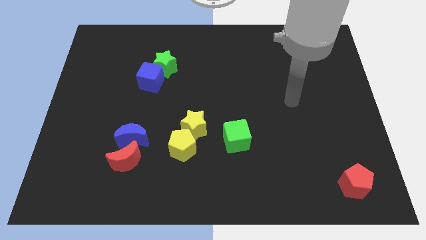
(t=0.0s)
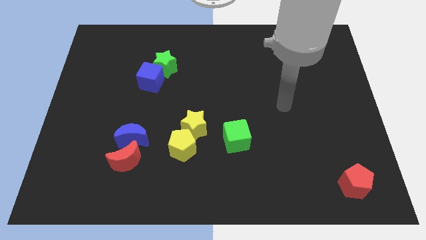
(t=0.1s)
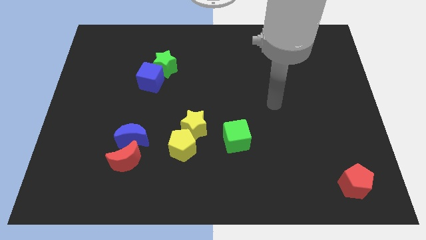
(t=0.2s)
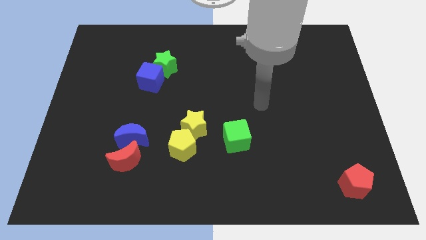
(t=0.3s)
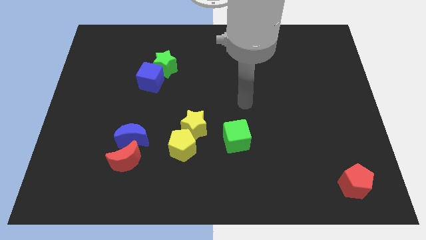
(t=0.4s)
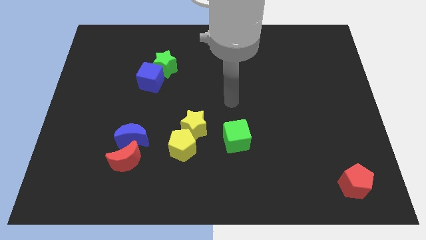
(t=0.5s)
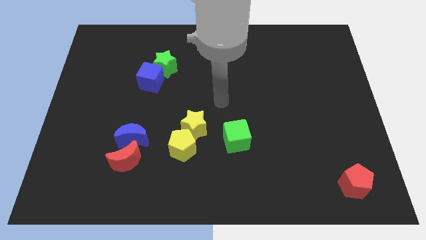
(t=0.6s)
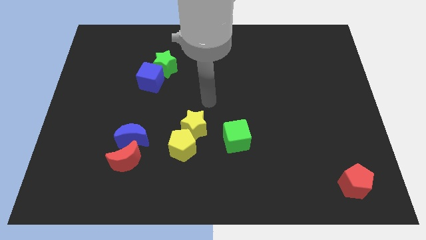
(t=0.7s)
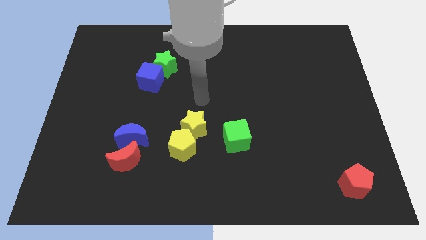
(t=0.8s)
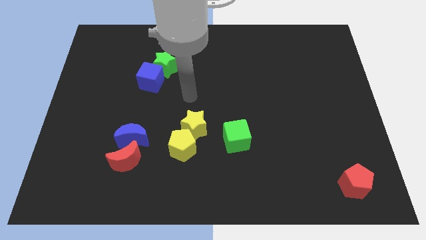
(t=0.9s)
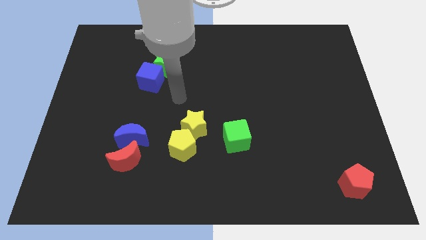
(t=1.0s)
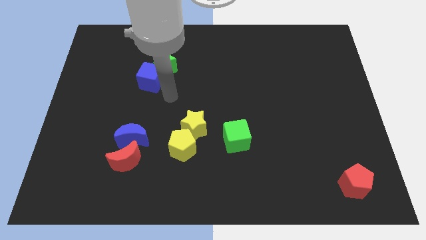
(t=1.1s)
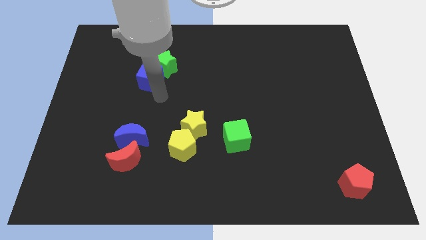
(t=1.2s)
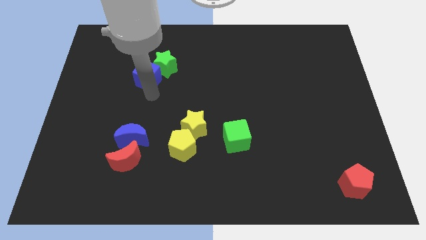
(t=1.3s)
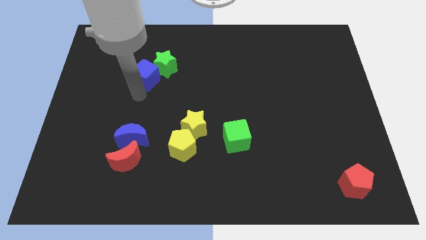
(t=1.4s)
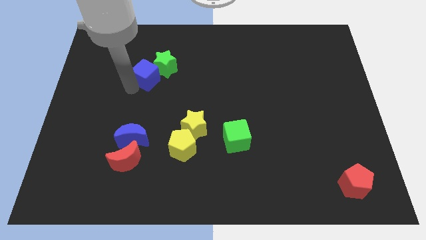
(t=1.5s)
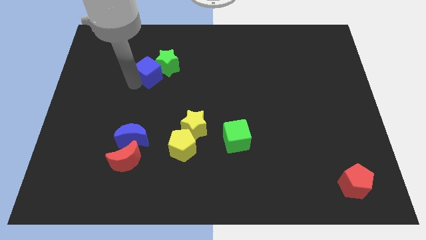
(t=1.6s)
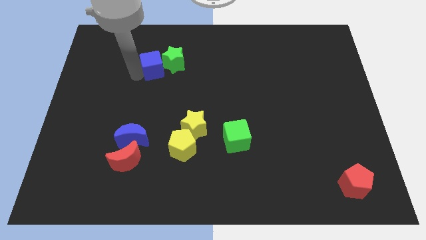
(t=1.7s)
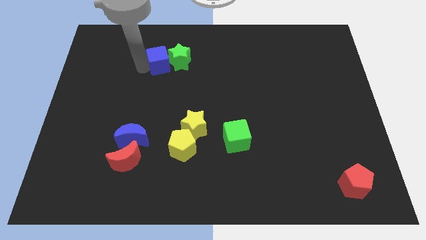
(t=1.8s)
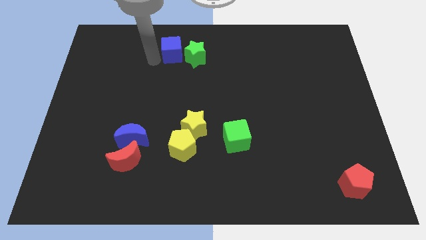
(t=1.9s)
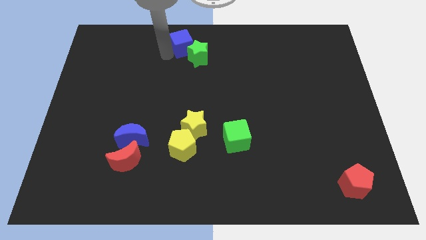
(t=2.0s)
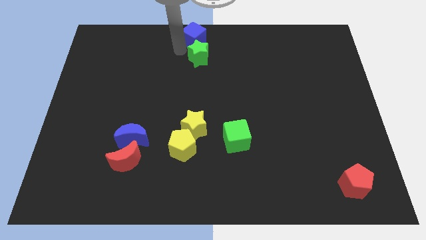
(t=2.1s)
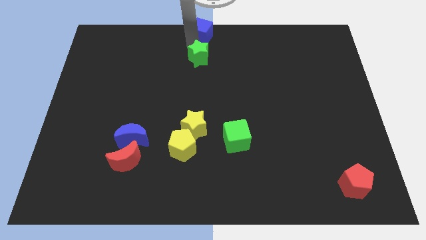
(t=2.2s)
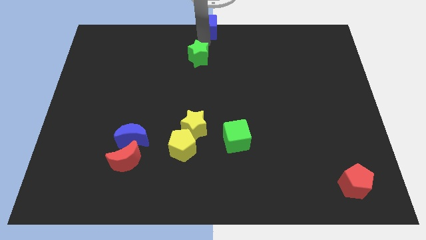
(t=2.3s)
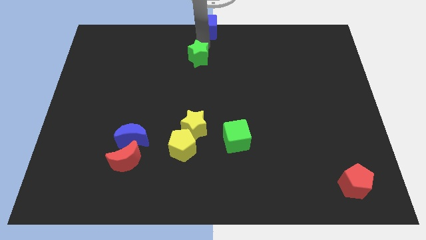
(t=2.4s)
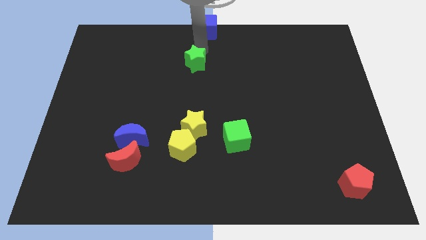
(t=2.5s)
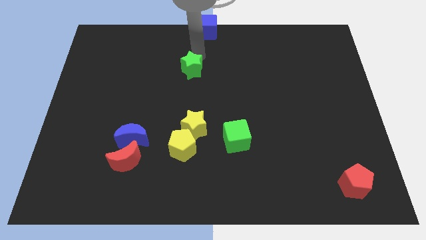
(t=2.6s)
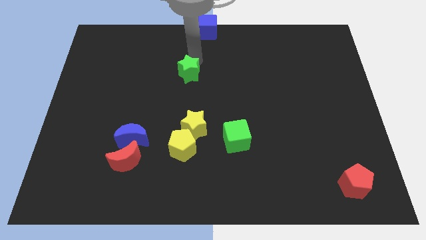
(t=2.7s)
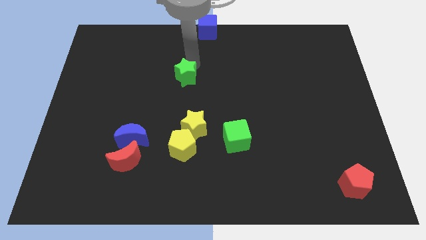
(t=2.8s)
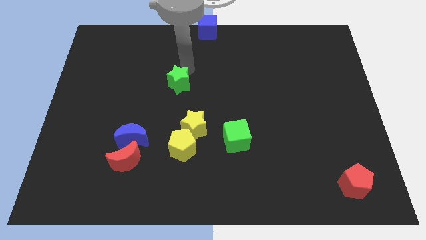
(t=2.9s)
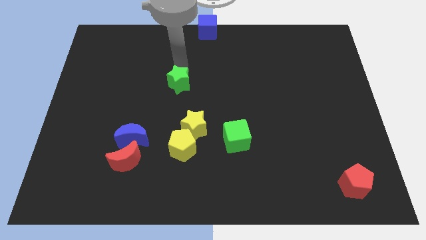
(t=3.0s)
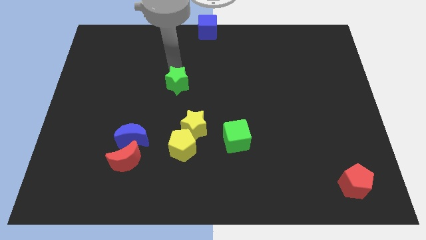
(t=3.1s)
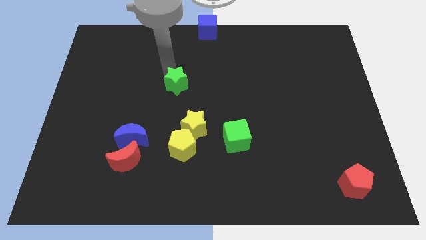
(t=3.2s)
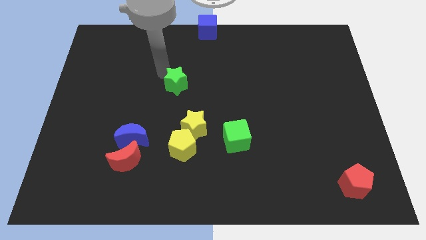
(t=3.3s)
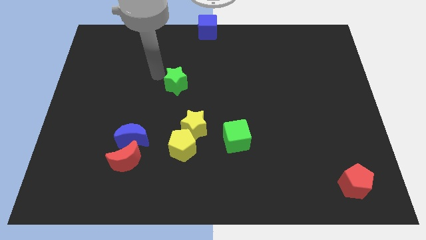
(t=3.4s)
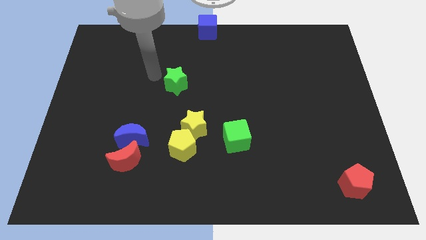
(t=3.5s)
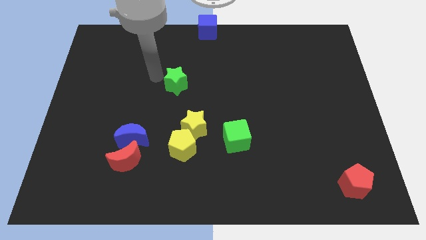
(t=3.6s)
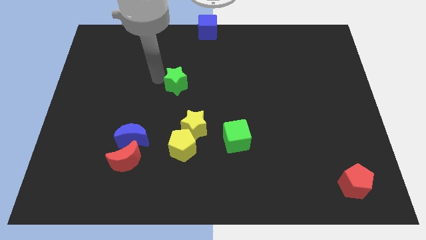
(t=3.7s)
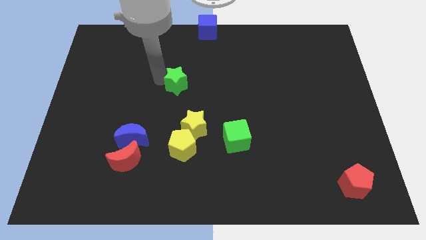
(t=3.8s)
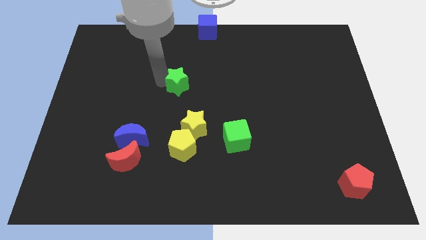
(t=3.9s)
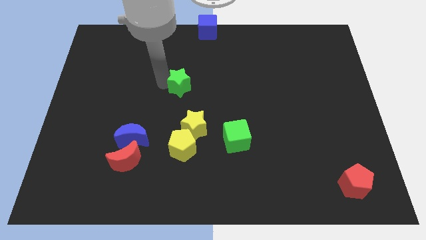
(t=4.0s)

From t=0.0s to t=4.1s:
slightly push the green star down and right

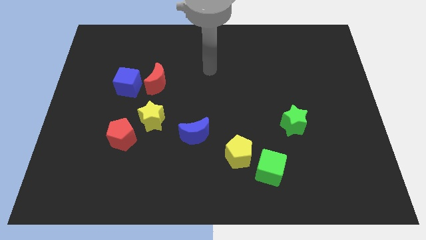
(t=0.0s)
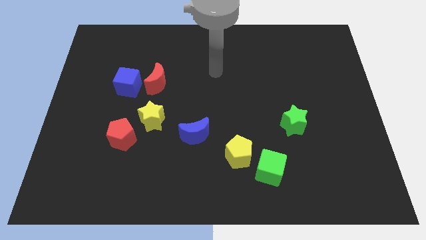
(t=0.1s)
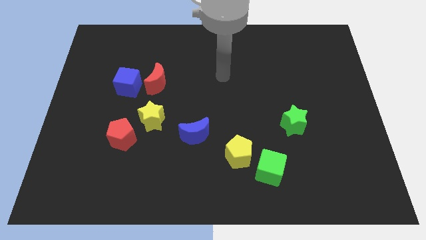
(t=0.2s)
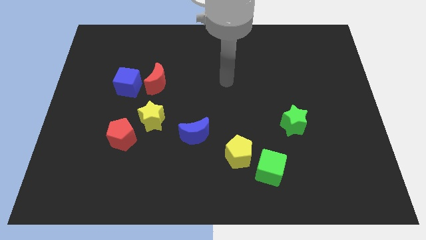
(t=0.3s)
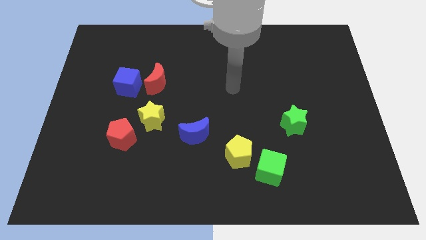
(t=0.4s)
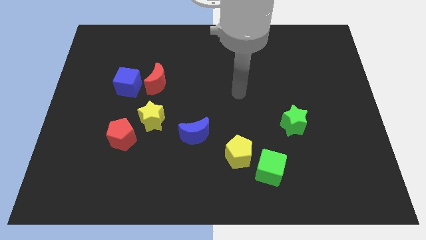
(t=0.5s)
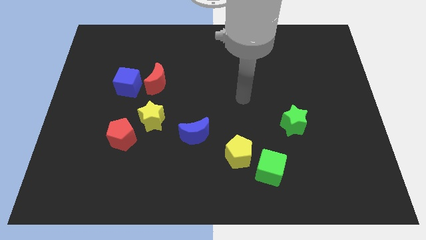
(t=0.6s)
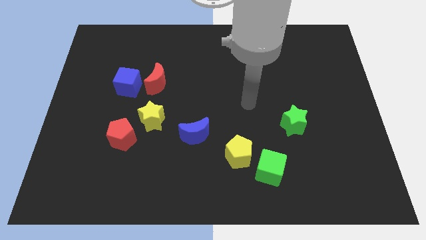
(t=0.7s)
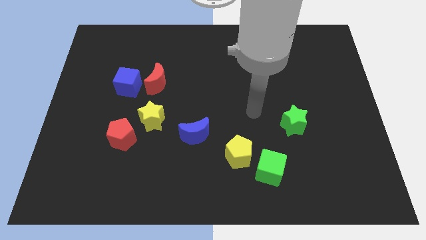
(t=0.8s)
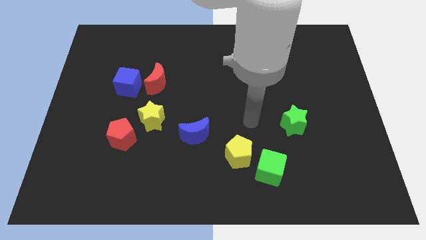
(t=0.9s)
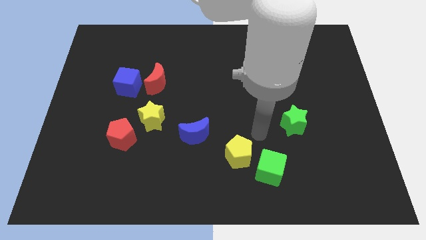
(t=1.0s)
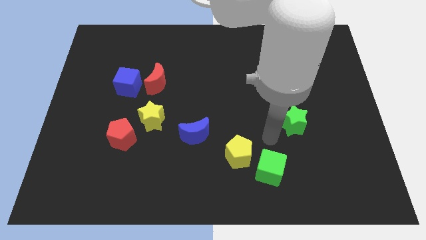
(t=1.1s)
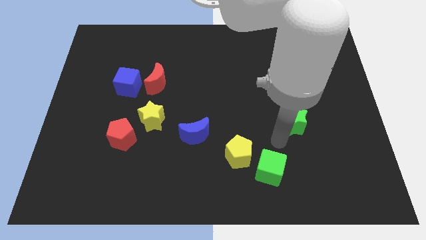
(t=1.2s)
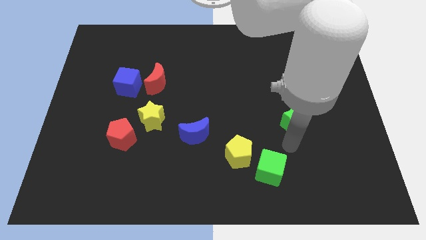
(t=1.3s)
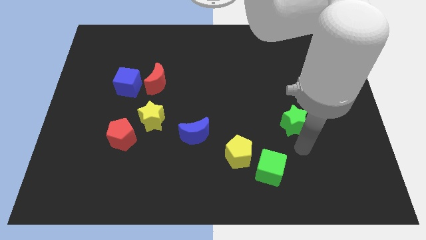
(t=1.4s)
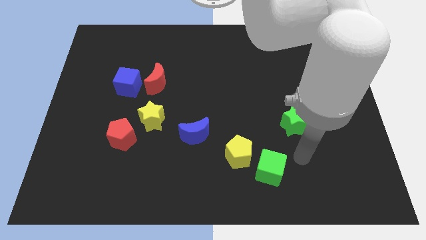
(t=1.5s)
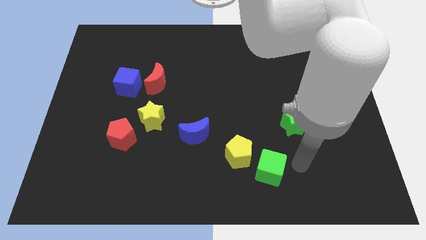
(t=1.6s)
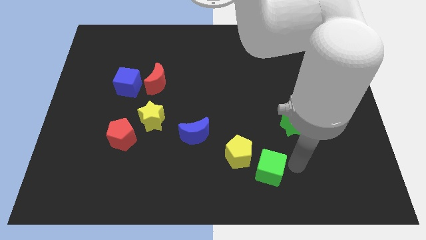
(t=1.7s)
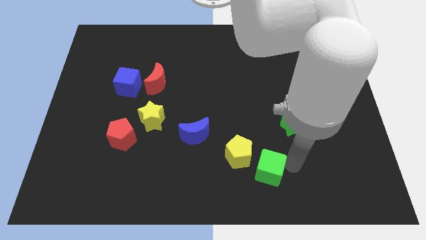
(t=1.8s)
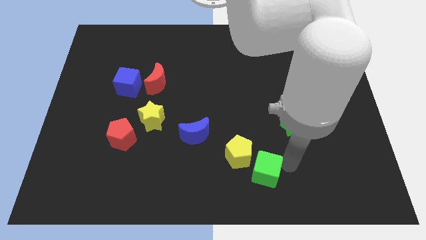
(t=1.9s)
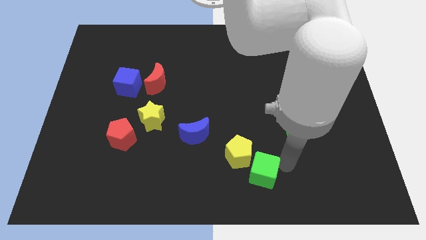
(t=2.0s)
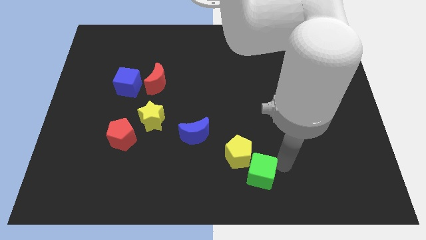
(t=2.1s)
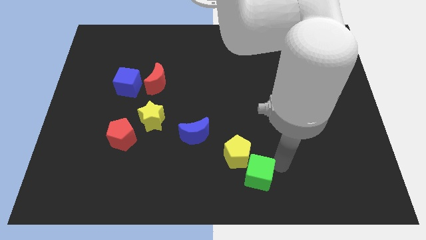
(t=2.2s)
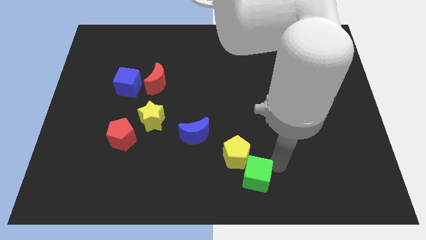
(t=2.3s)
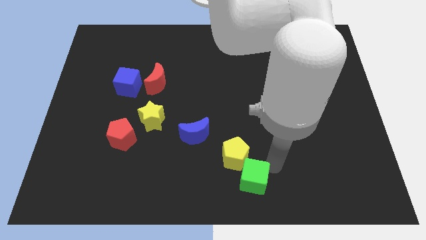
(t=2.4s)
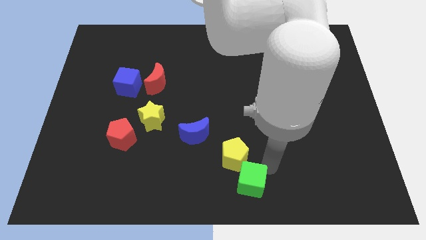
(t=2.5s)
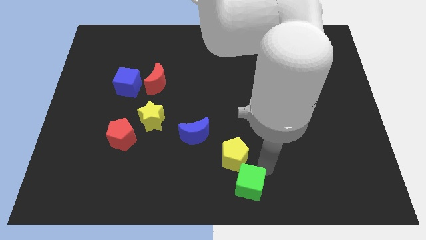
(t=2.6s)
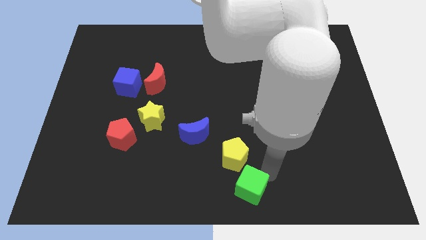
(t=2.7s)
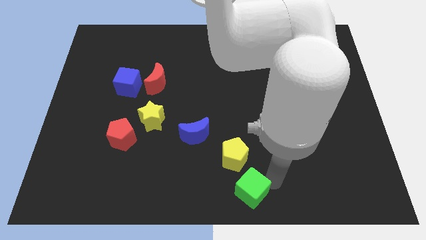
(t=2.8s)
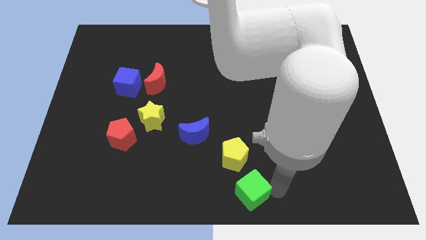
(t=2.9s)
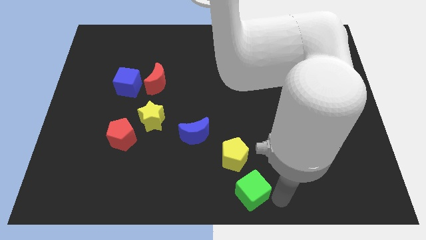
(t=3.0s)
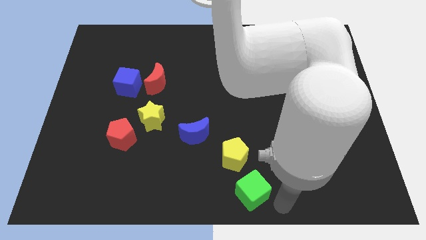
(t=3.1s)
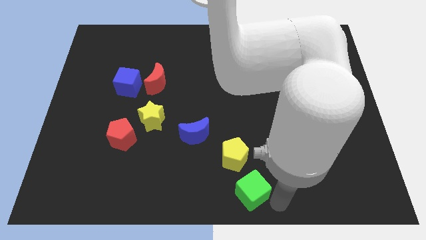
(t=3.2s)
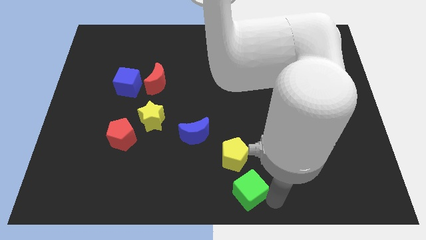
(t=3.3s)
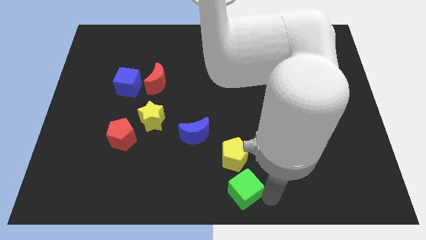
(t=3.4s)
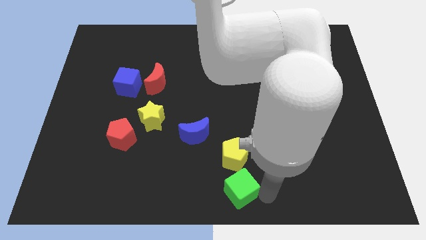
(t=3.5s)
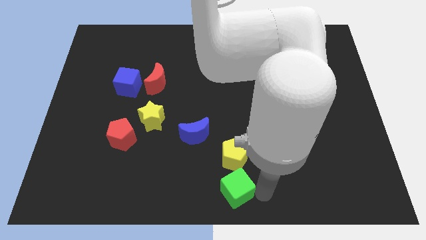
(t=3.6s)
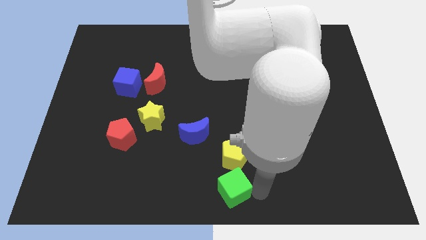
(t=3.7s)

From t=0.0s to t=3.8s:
move the green cube a little left

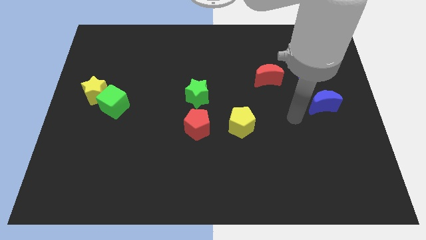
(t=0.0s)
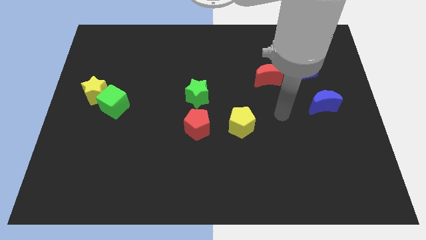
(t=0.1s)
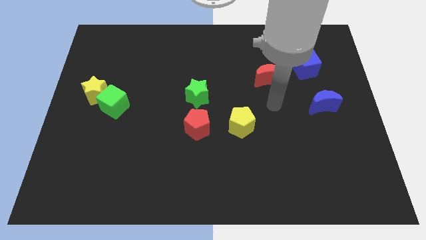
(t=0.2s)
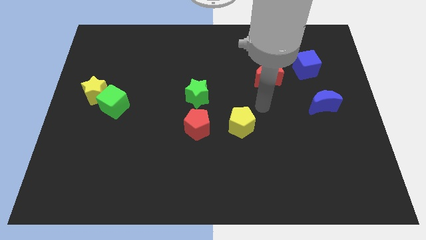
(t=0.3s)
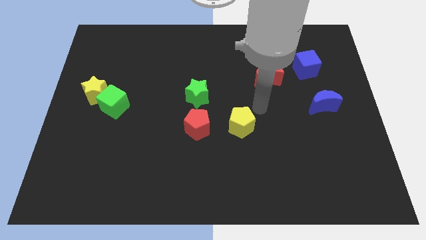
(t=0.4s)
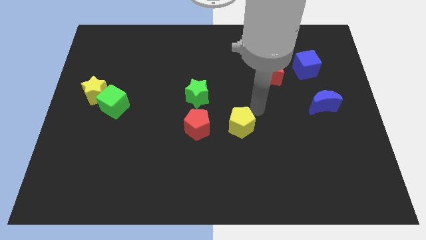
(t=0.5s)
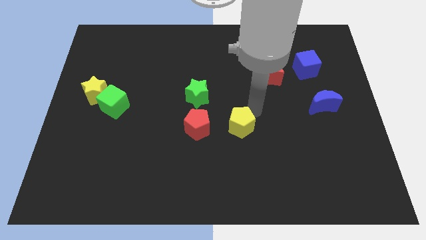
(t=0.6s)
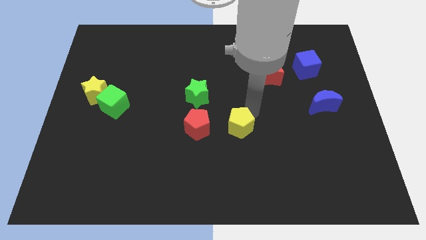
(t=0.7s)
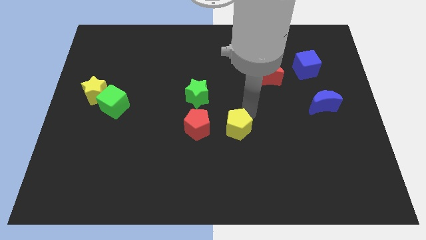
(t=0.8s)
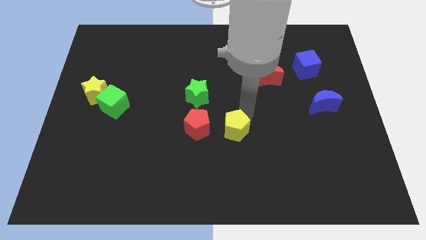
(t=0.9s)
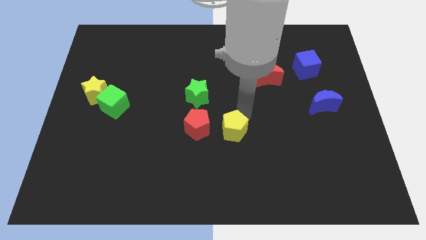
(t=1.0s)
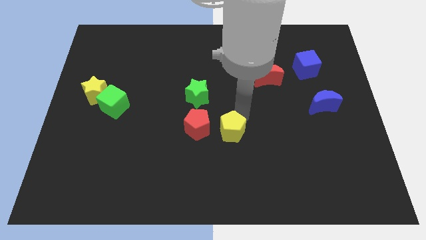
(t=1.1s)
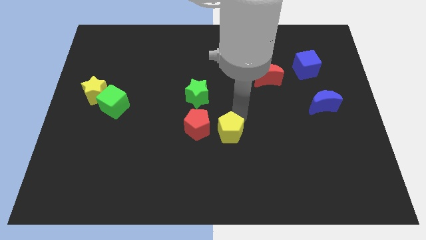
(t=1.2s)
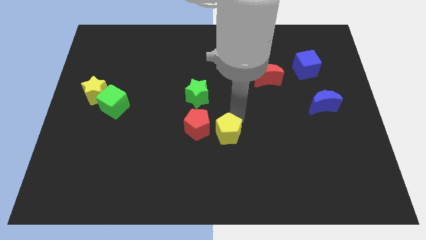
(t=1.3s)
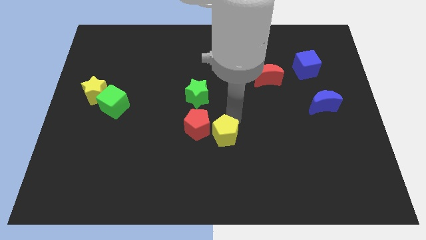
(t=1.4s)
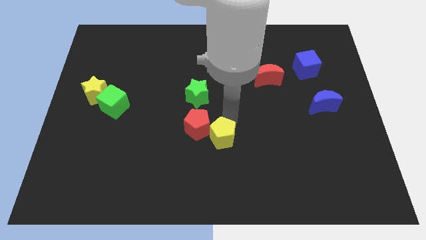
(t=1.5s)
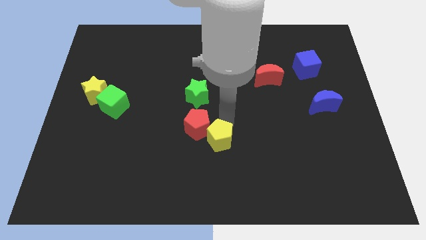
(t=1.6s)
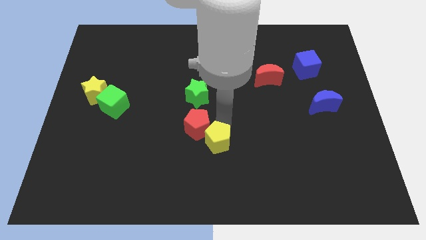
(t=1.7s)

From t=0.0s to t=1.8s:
move the yellow pentagon diagonally down and to the left a bit
